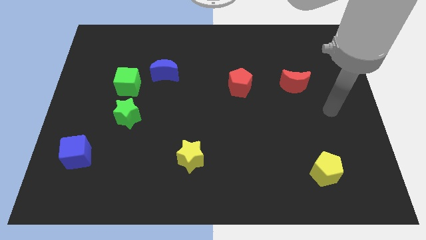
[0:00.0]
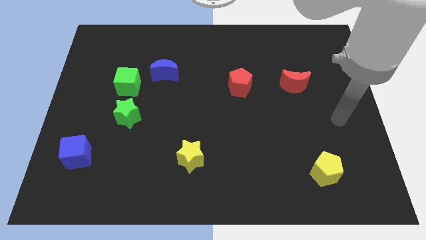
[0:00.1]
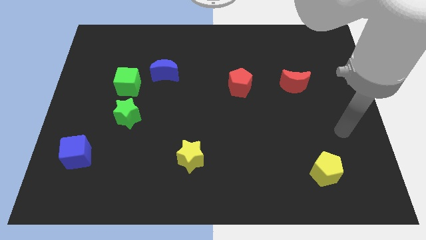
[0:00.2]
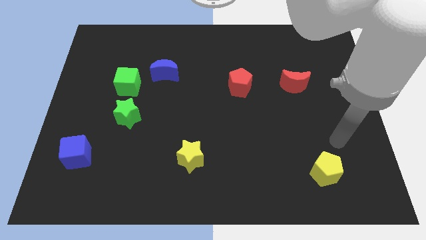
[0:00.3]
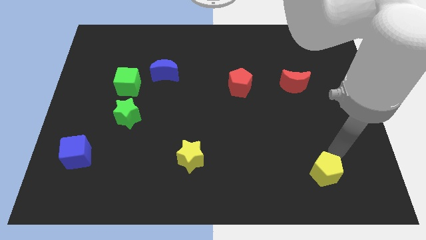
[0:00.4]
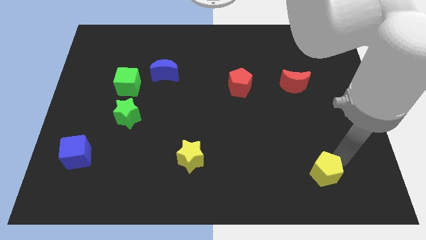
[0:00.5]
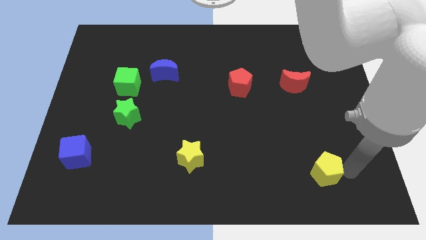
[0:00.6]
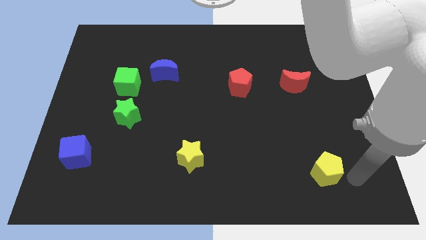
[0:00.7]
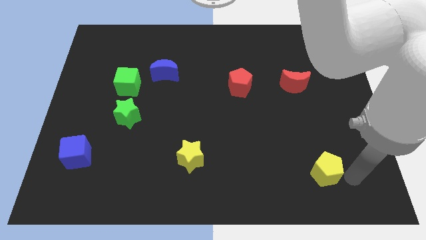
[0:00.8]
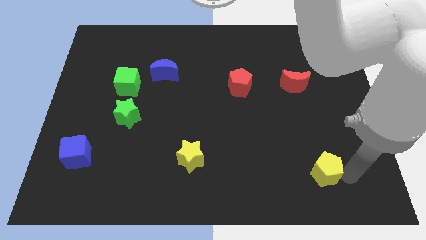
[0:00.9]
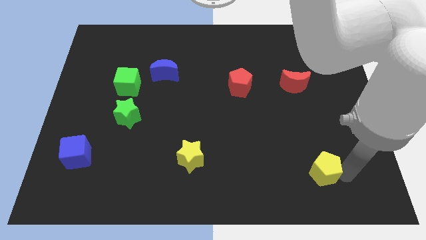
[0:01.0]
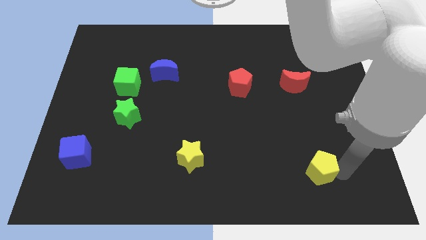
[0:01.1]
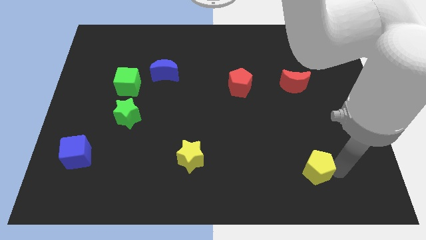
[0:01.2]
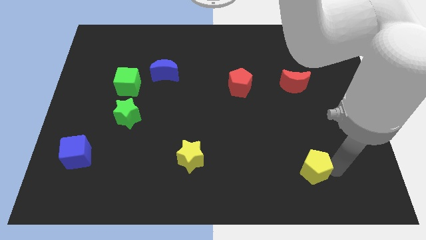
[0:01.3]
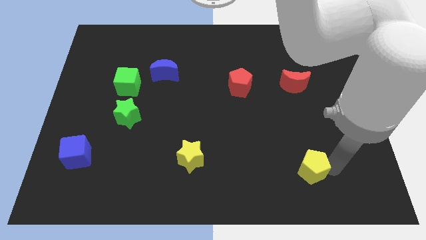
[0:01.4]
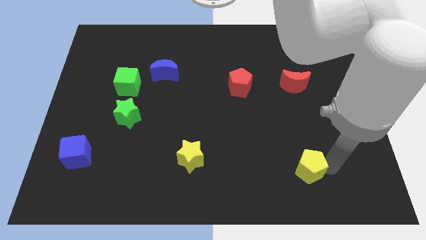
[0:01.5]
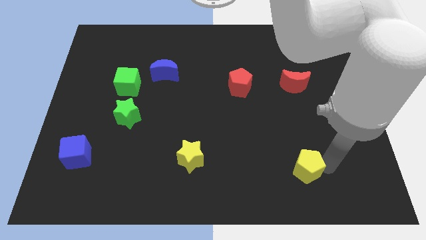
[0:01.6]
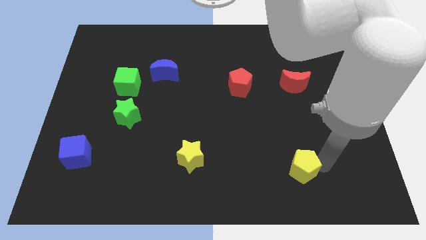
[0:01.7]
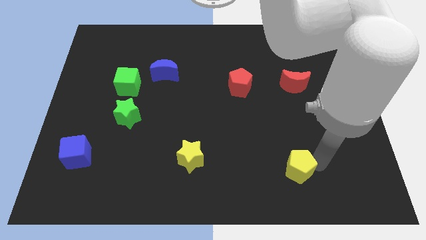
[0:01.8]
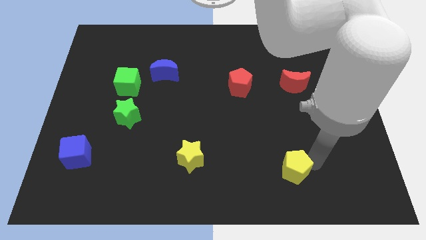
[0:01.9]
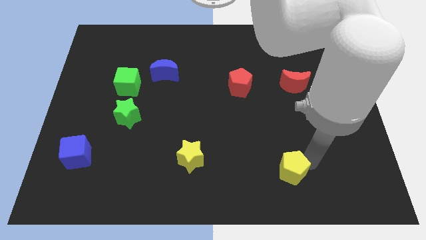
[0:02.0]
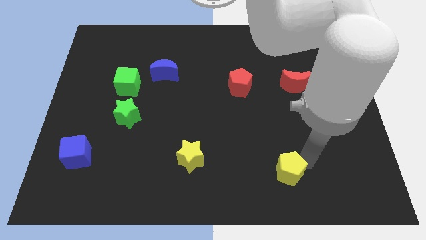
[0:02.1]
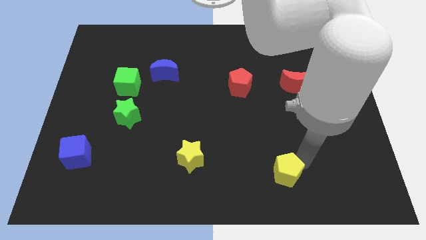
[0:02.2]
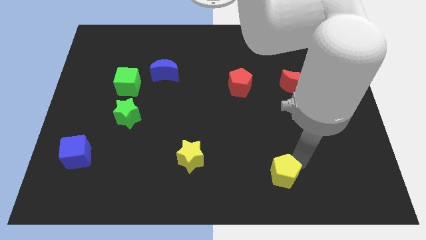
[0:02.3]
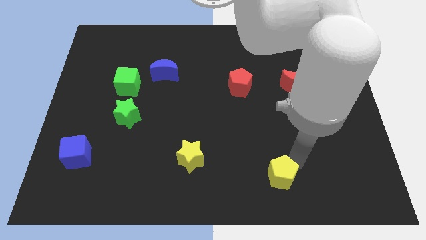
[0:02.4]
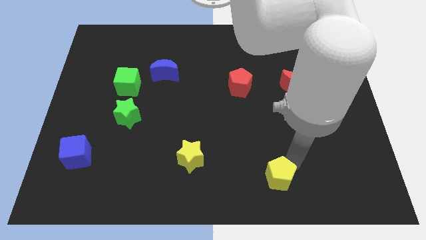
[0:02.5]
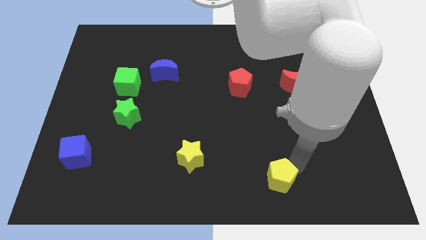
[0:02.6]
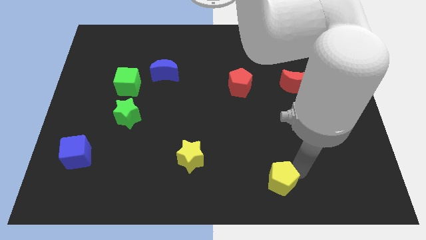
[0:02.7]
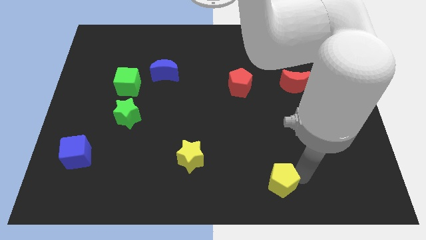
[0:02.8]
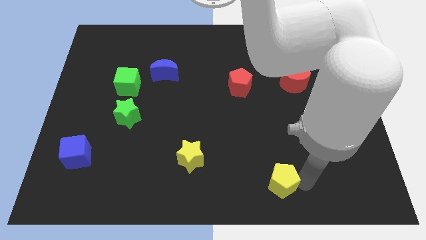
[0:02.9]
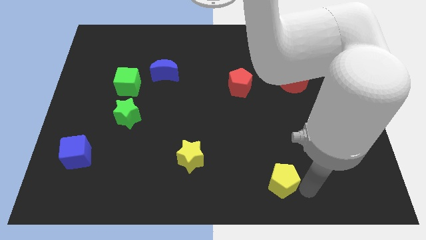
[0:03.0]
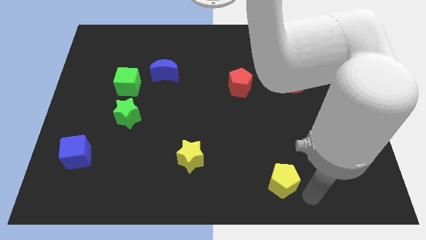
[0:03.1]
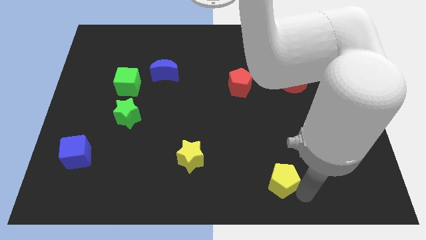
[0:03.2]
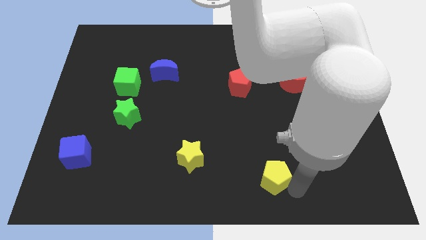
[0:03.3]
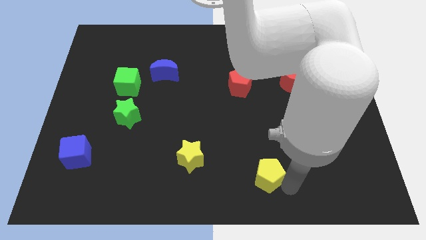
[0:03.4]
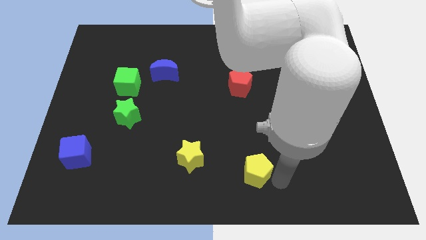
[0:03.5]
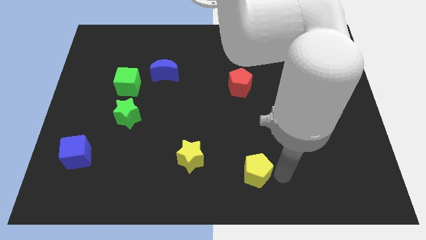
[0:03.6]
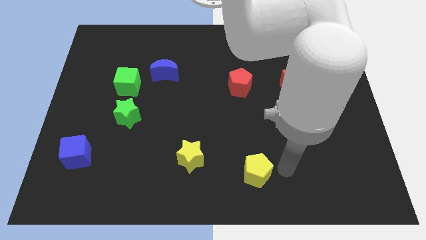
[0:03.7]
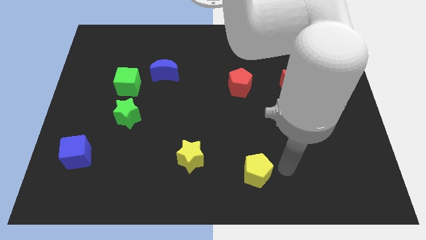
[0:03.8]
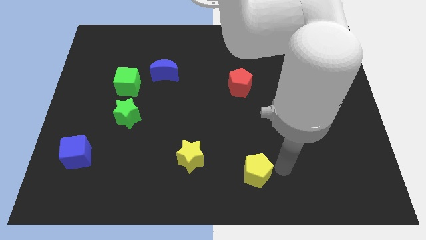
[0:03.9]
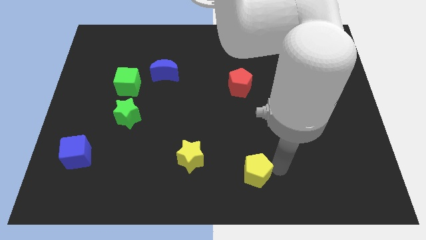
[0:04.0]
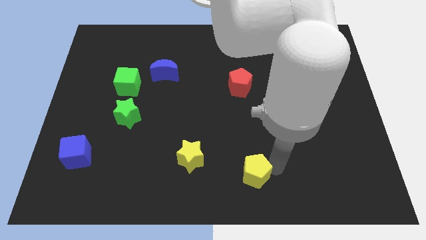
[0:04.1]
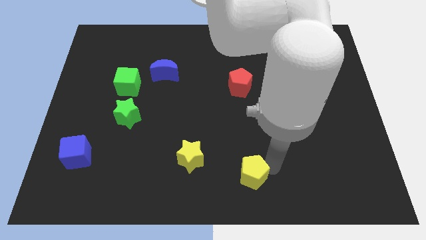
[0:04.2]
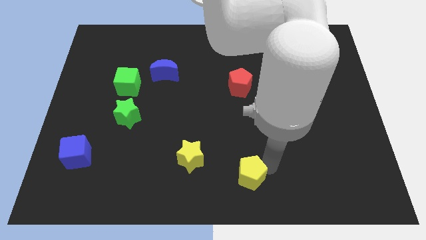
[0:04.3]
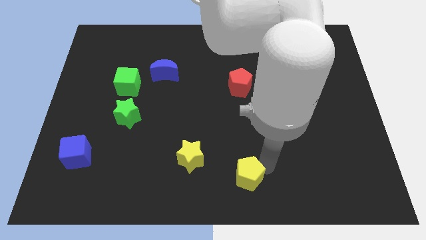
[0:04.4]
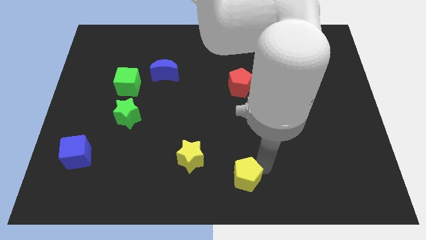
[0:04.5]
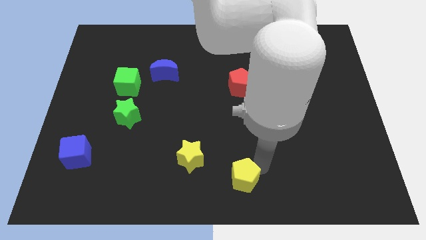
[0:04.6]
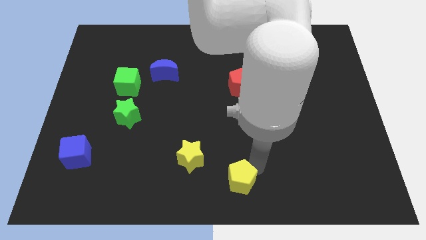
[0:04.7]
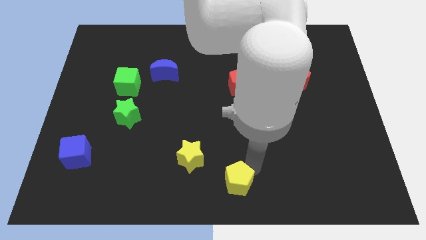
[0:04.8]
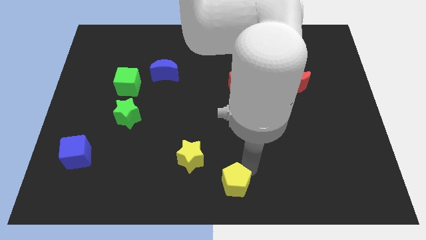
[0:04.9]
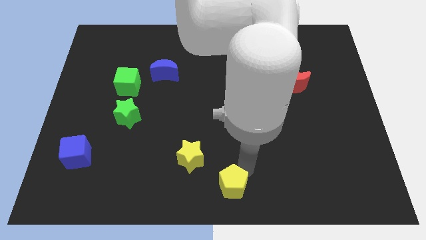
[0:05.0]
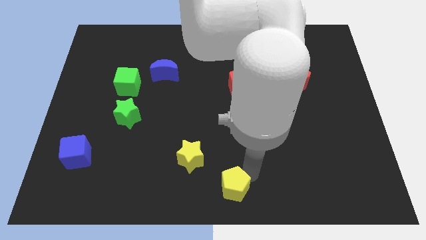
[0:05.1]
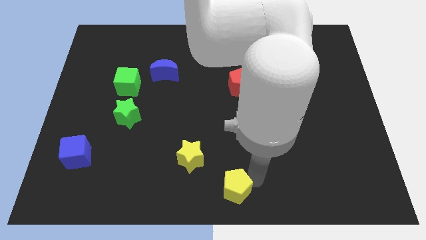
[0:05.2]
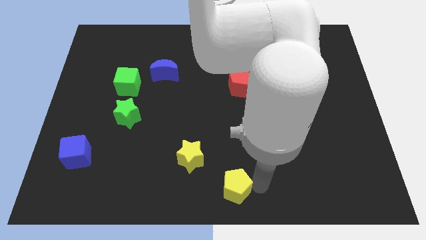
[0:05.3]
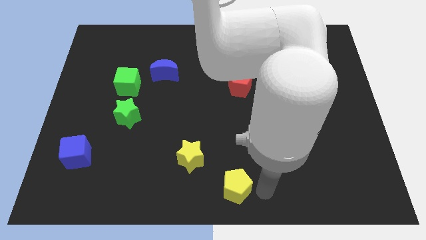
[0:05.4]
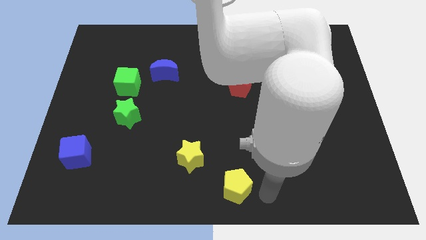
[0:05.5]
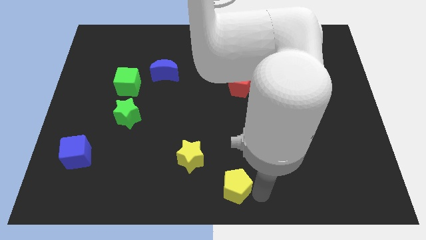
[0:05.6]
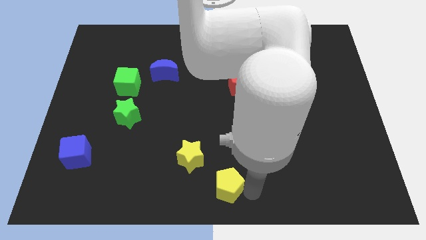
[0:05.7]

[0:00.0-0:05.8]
slide the yellow pentagon to the left

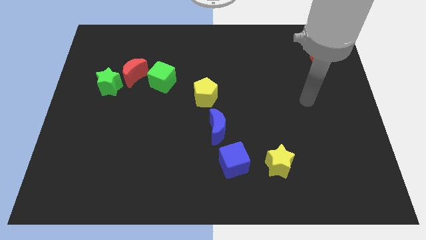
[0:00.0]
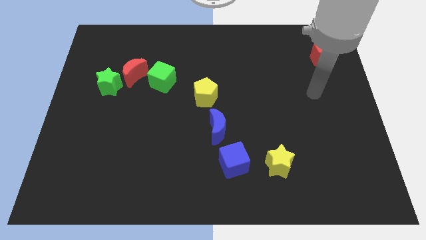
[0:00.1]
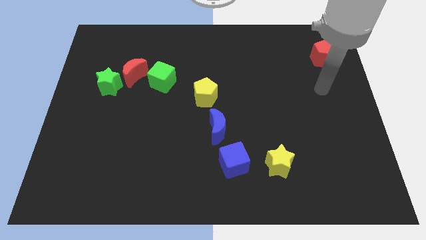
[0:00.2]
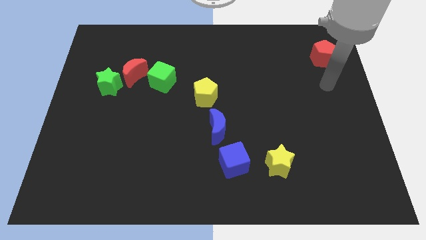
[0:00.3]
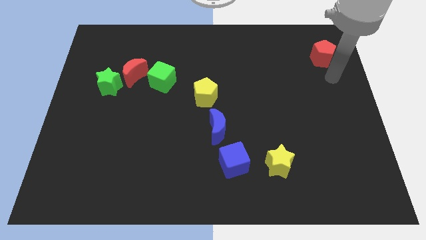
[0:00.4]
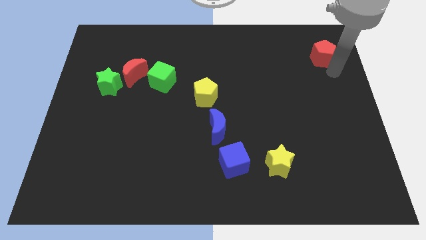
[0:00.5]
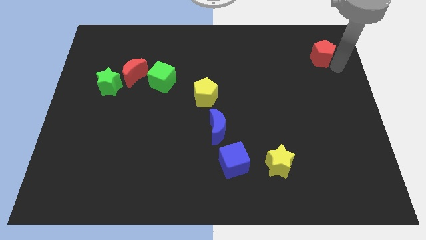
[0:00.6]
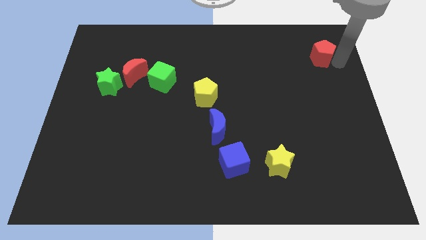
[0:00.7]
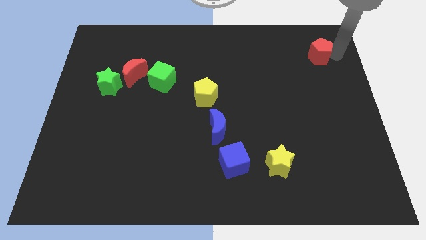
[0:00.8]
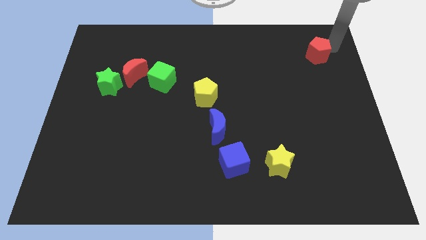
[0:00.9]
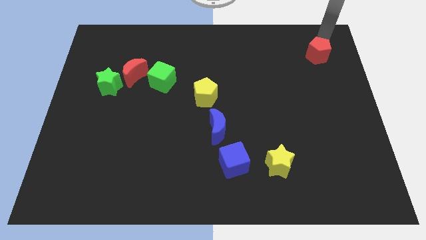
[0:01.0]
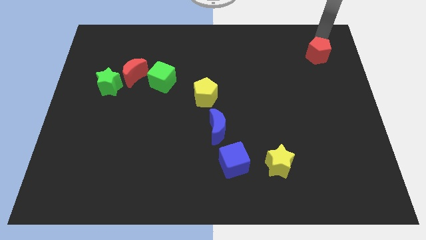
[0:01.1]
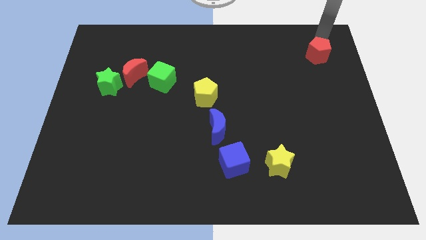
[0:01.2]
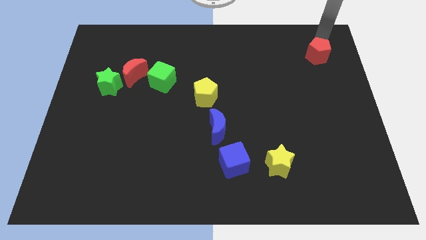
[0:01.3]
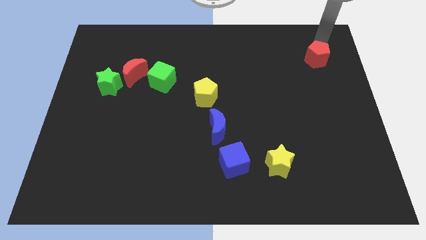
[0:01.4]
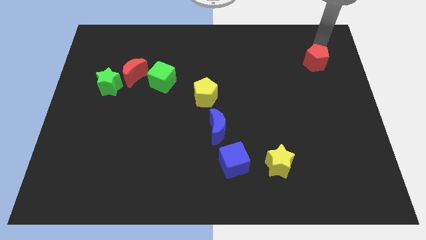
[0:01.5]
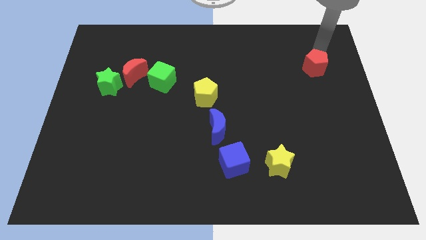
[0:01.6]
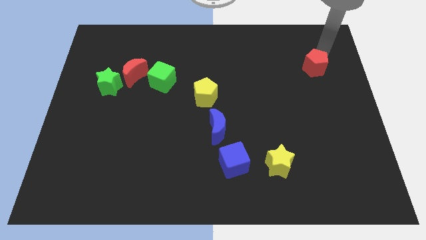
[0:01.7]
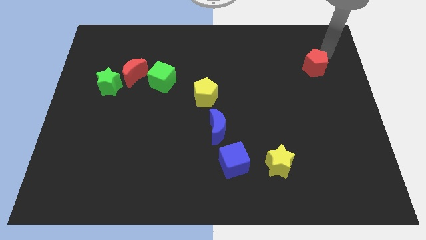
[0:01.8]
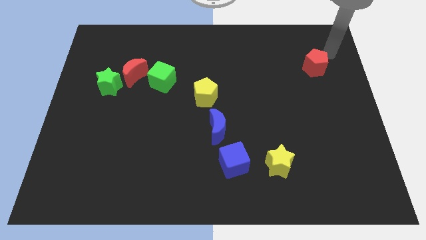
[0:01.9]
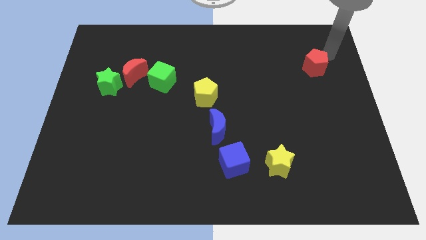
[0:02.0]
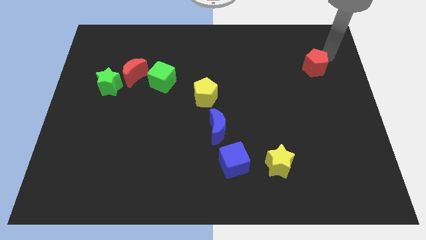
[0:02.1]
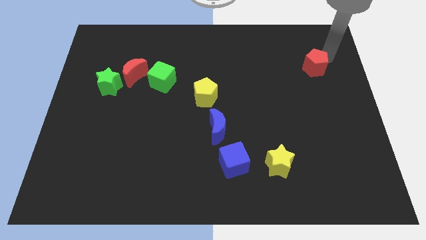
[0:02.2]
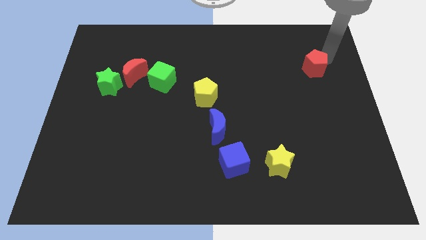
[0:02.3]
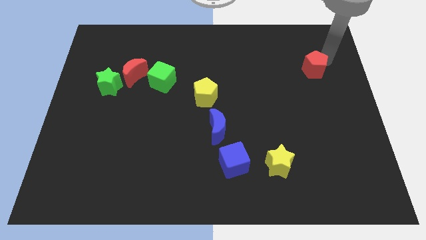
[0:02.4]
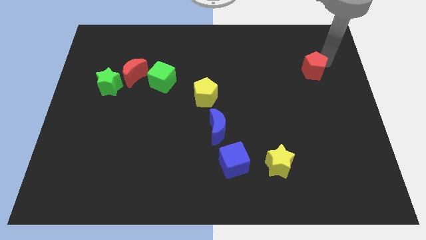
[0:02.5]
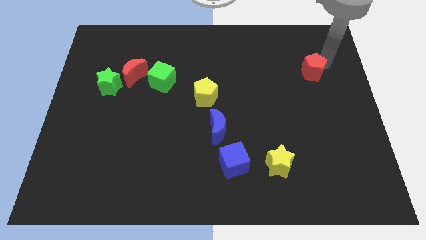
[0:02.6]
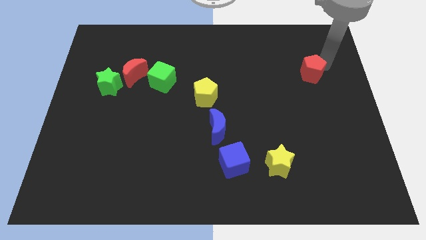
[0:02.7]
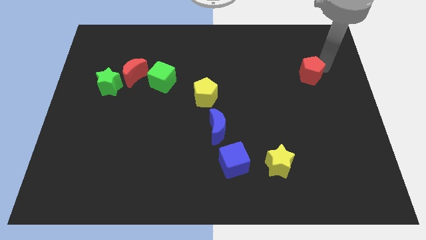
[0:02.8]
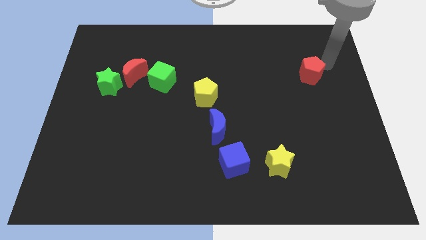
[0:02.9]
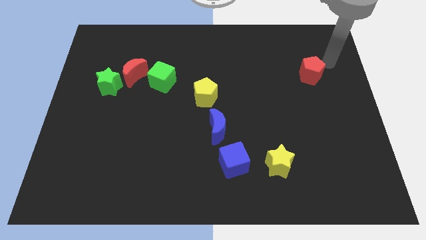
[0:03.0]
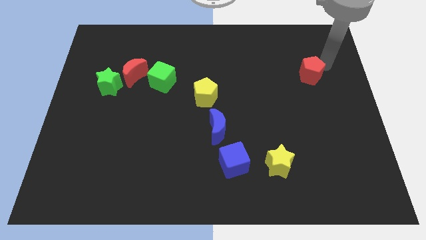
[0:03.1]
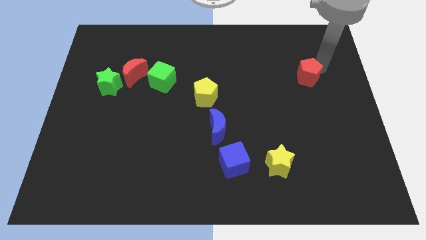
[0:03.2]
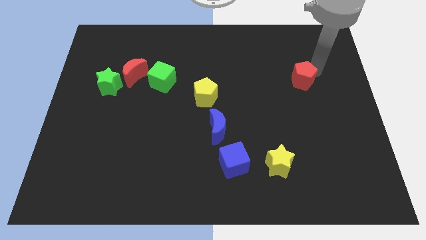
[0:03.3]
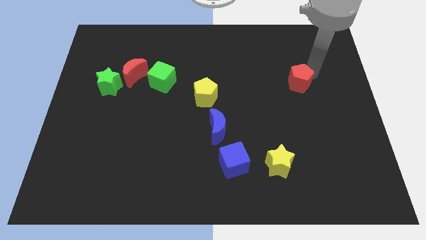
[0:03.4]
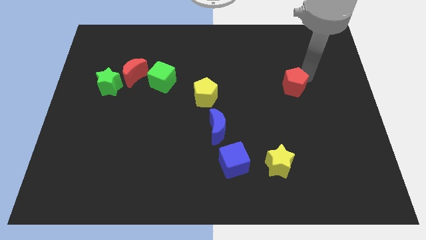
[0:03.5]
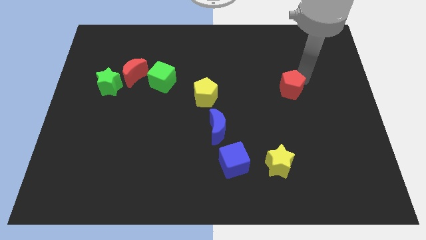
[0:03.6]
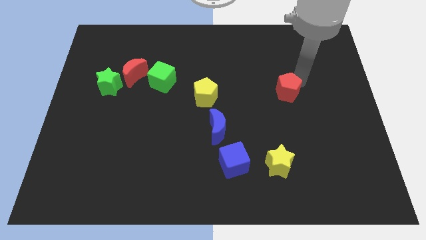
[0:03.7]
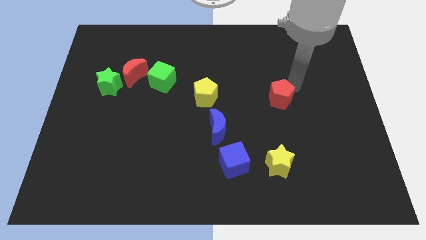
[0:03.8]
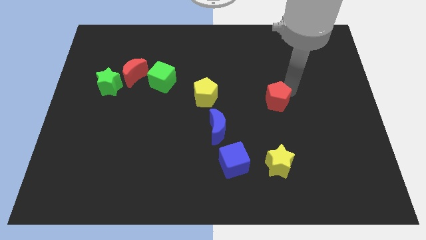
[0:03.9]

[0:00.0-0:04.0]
move the red pentagon downwards and to the left diagonally
